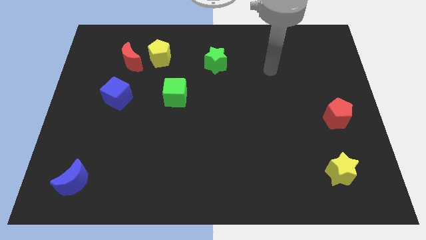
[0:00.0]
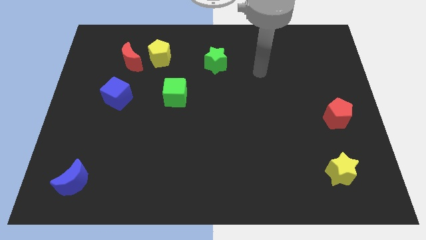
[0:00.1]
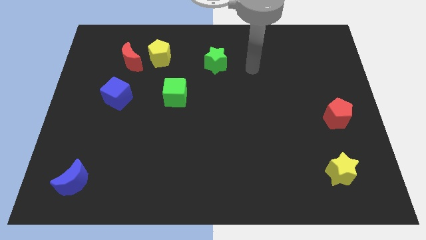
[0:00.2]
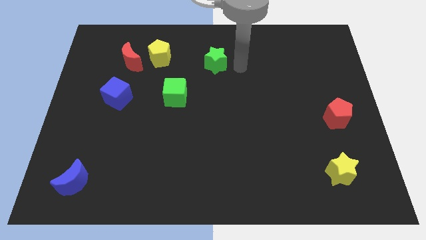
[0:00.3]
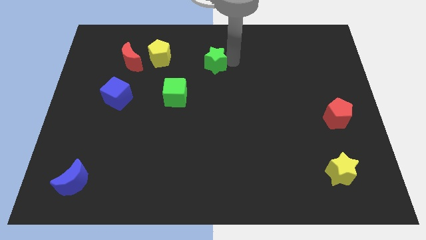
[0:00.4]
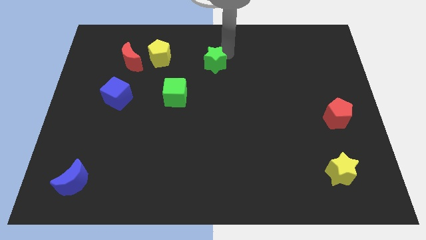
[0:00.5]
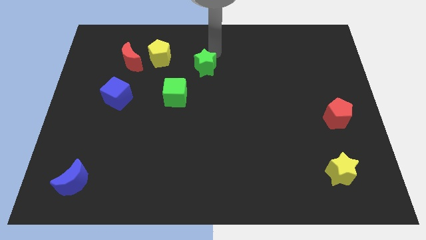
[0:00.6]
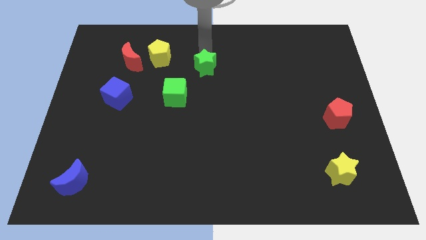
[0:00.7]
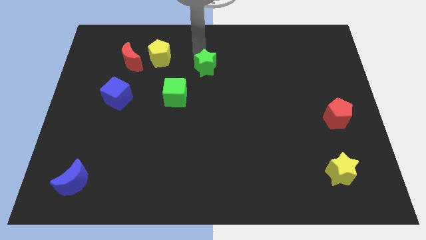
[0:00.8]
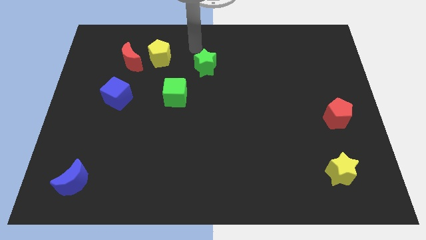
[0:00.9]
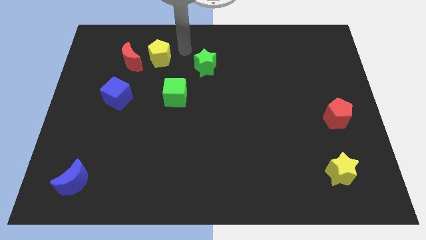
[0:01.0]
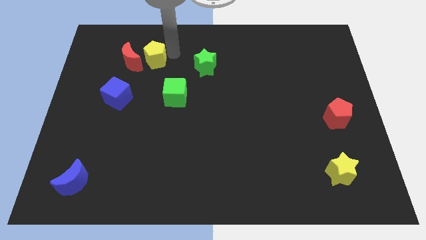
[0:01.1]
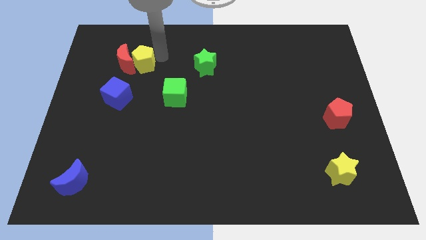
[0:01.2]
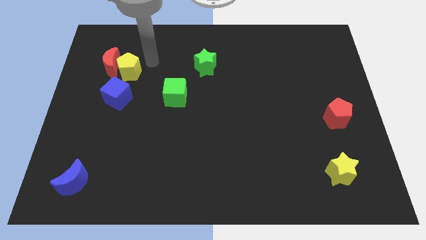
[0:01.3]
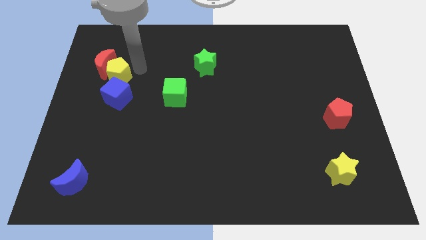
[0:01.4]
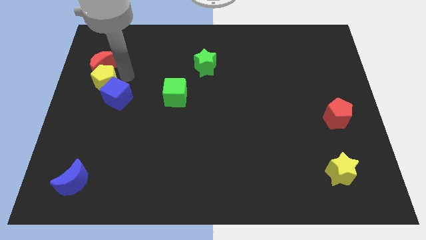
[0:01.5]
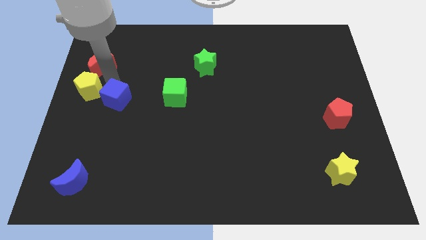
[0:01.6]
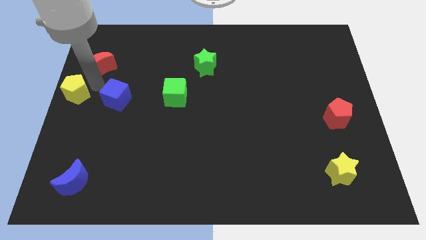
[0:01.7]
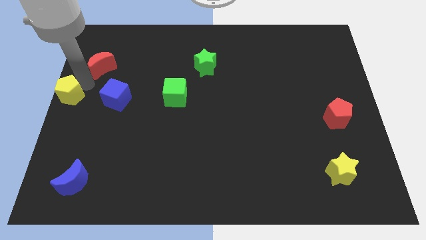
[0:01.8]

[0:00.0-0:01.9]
move the red moon away from the yellow pentagon

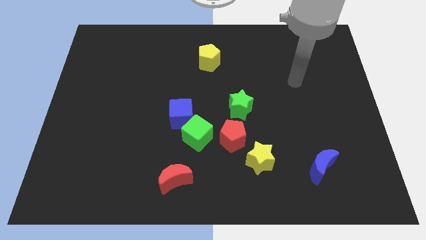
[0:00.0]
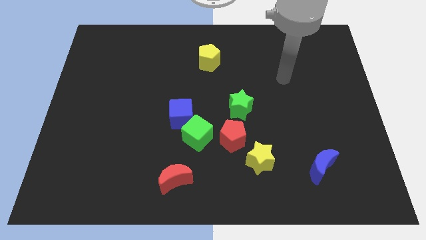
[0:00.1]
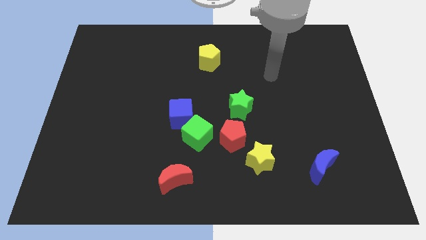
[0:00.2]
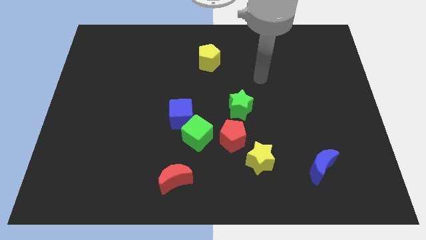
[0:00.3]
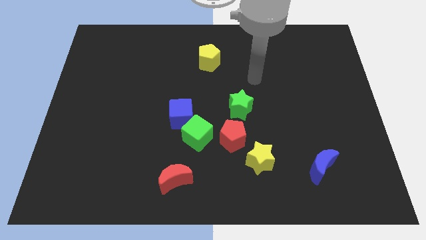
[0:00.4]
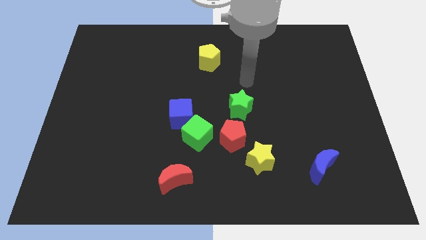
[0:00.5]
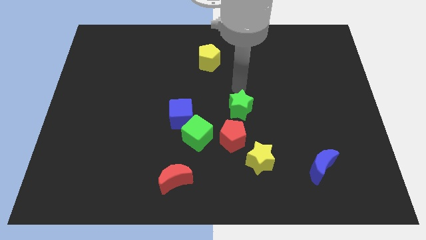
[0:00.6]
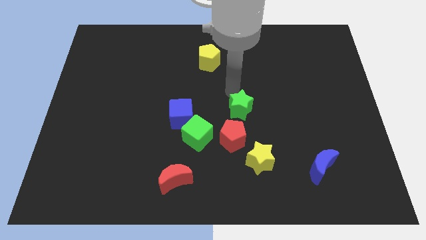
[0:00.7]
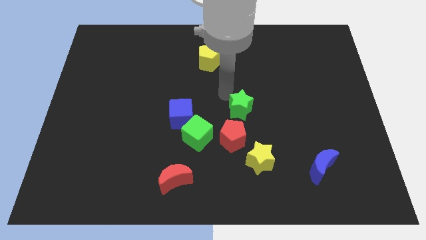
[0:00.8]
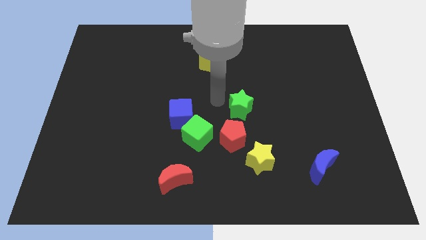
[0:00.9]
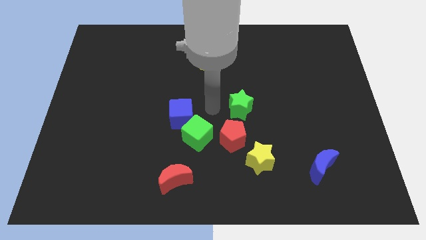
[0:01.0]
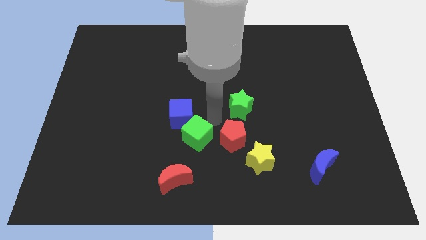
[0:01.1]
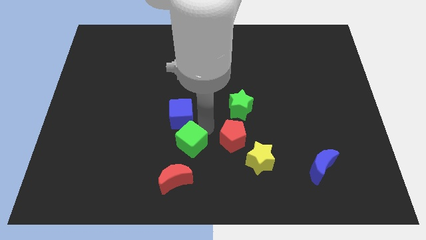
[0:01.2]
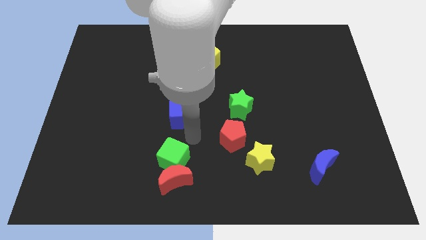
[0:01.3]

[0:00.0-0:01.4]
pull the blue cube apart from the green cube

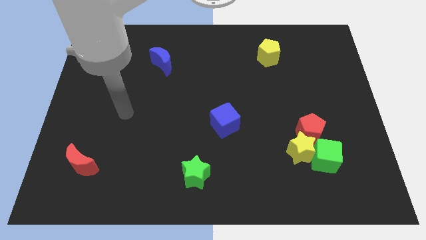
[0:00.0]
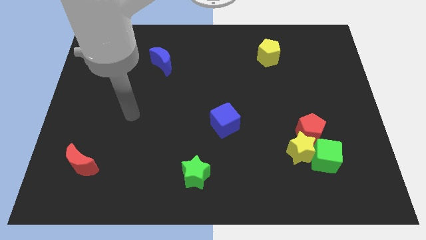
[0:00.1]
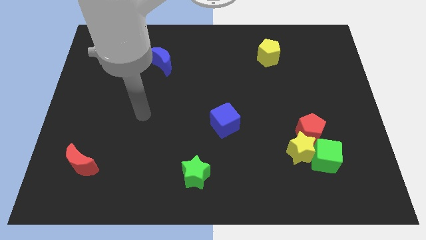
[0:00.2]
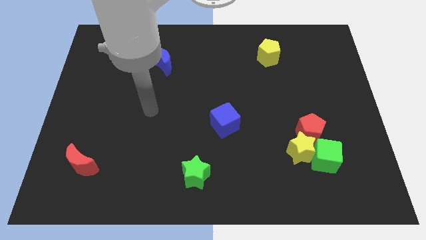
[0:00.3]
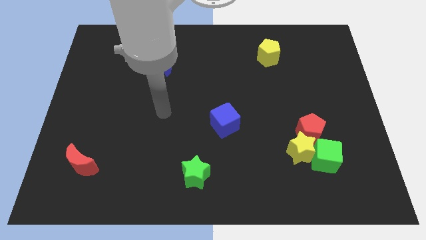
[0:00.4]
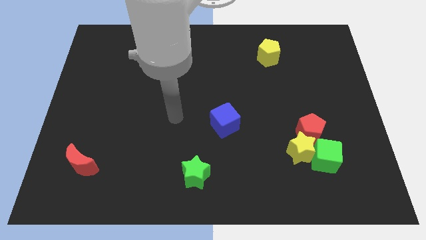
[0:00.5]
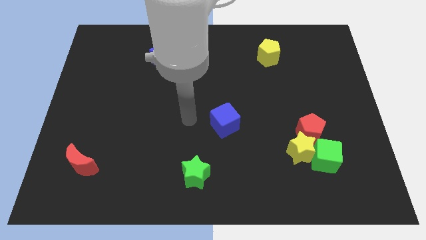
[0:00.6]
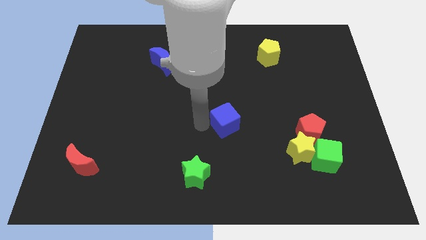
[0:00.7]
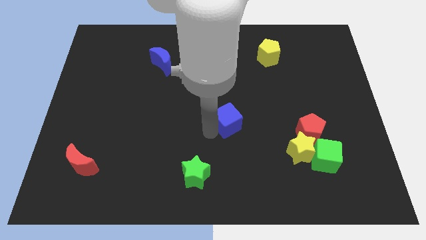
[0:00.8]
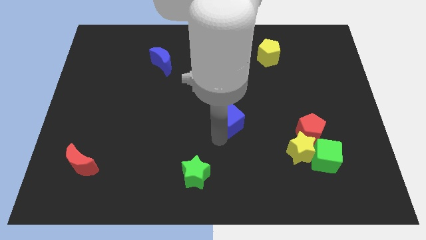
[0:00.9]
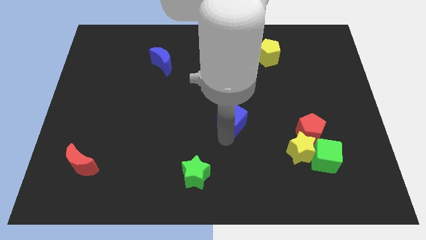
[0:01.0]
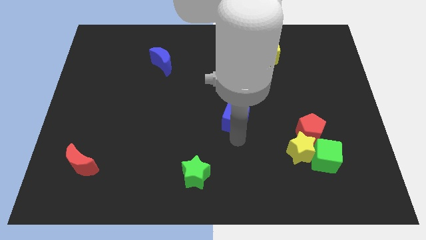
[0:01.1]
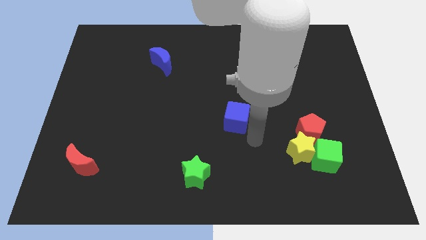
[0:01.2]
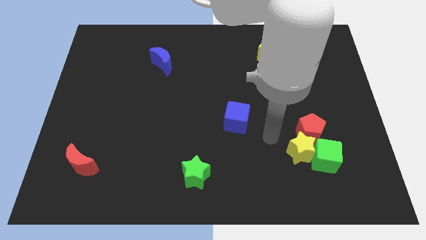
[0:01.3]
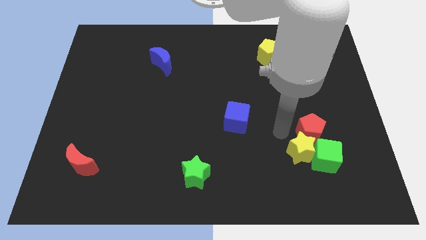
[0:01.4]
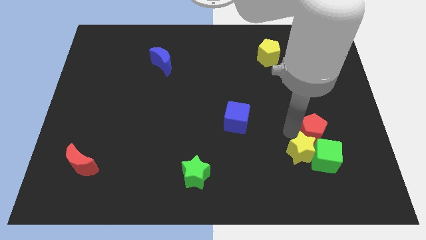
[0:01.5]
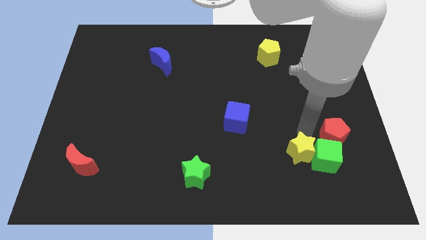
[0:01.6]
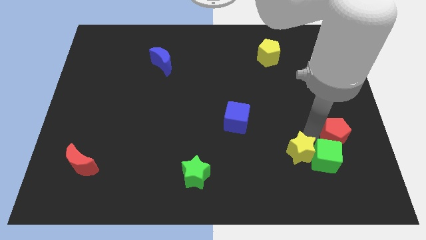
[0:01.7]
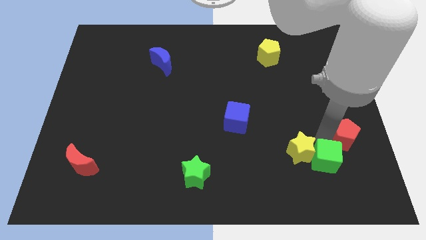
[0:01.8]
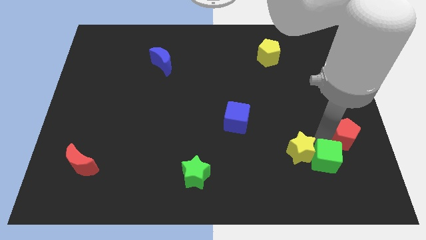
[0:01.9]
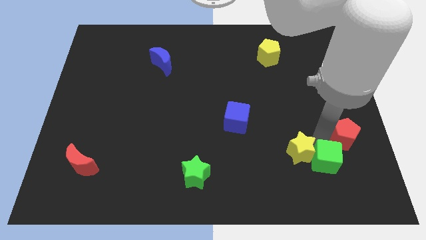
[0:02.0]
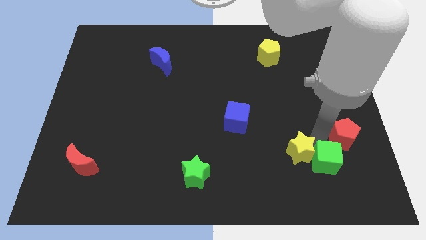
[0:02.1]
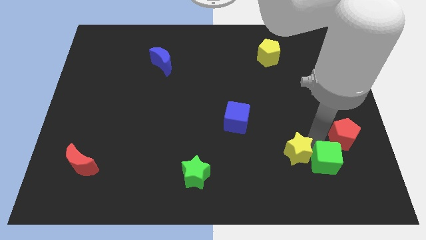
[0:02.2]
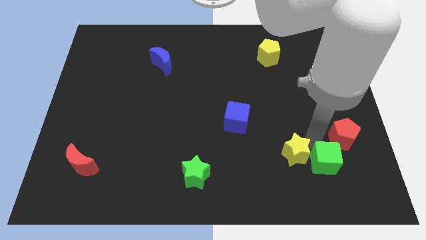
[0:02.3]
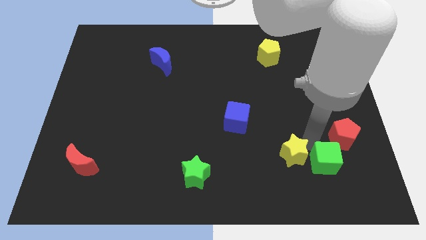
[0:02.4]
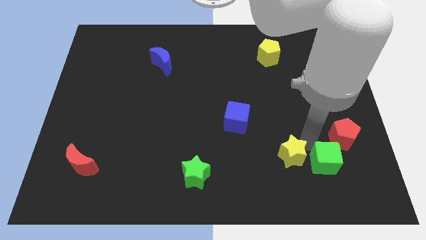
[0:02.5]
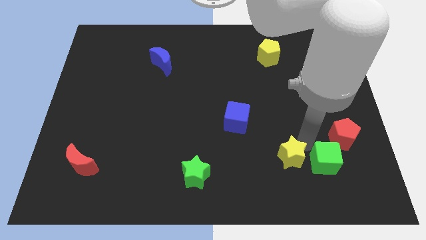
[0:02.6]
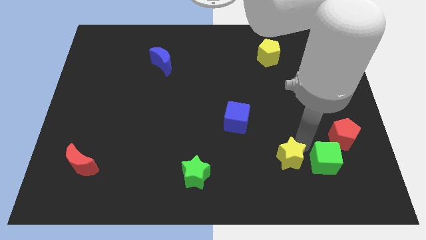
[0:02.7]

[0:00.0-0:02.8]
move the yellow star away from the red pentagon and green cube

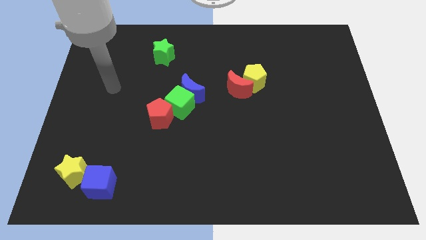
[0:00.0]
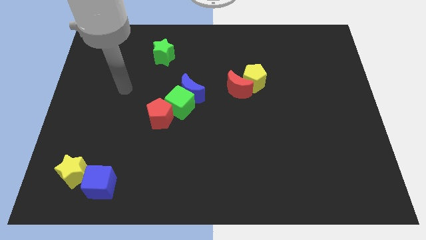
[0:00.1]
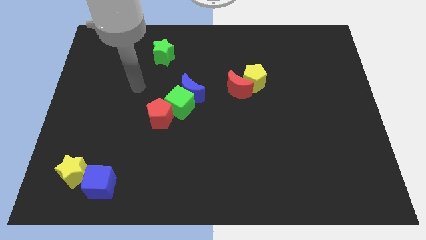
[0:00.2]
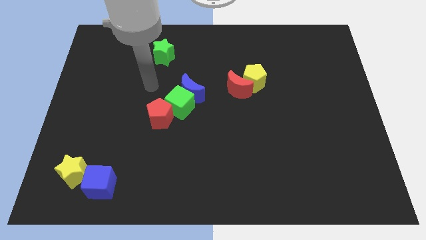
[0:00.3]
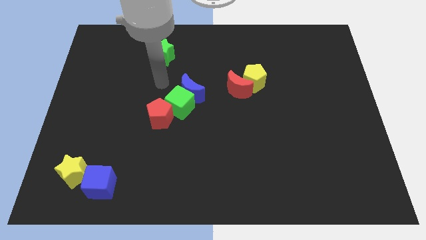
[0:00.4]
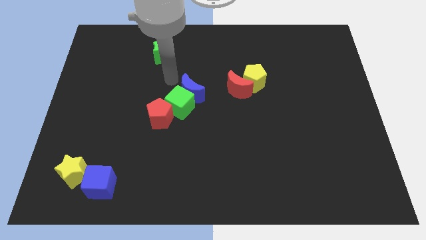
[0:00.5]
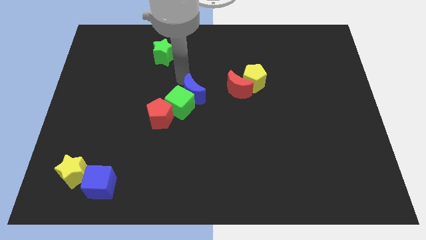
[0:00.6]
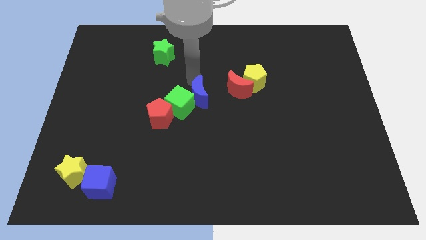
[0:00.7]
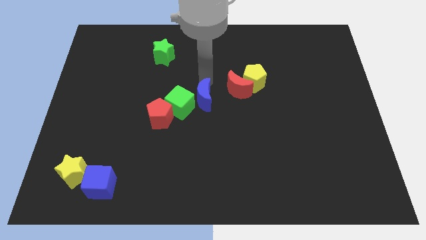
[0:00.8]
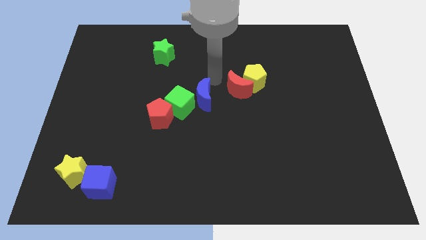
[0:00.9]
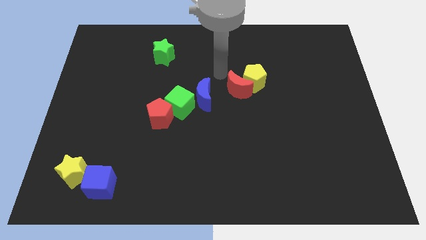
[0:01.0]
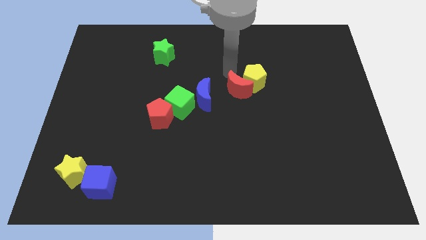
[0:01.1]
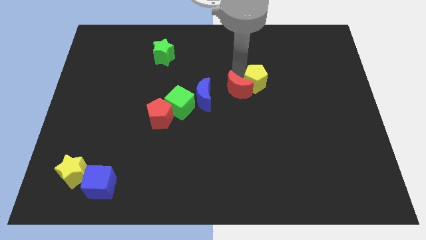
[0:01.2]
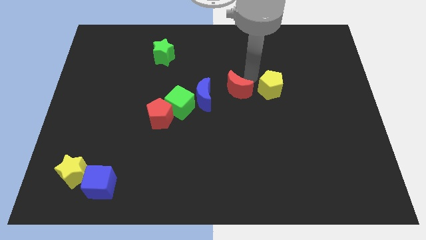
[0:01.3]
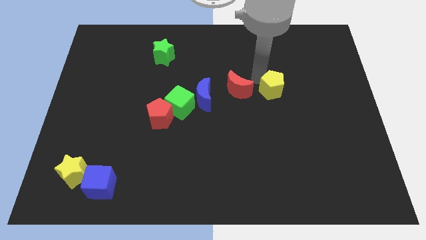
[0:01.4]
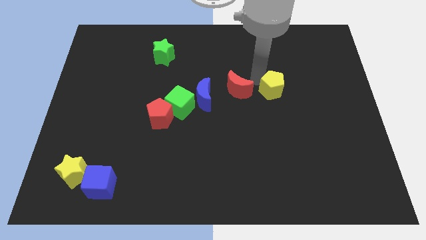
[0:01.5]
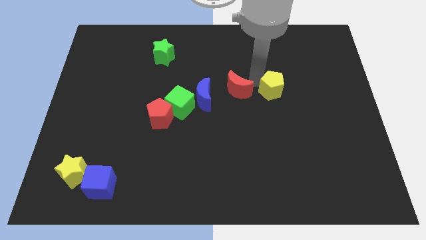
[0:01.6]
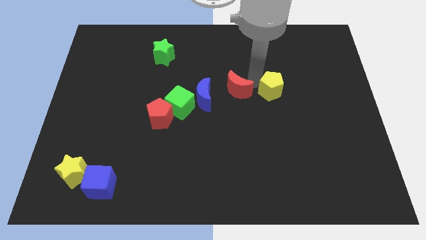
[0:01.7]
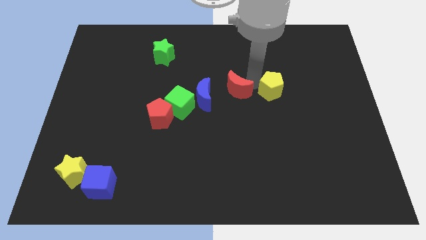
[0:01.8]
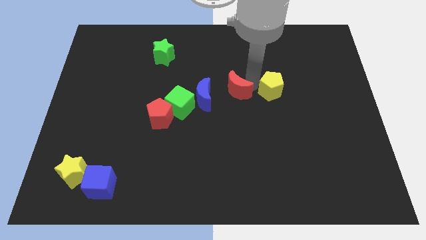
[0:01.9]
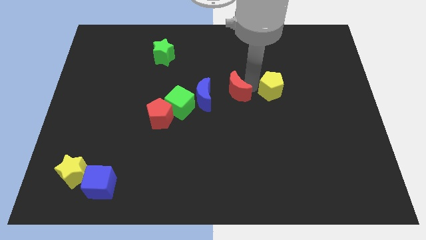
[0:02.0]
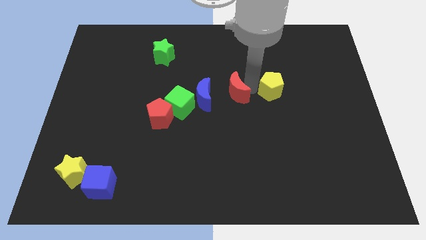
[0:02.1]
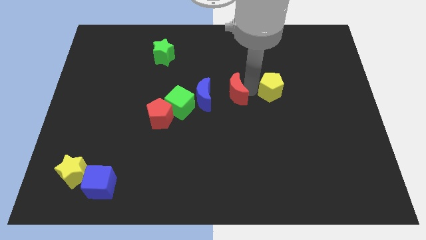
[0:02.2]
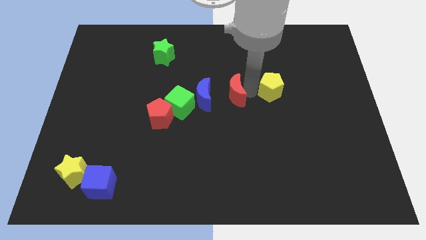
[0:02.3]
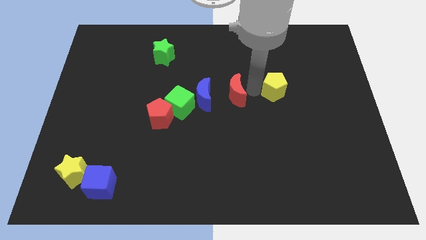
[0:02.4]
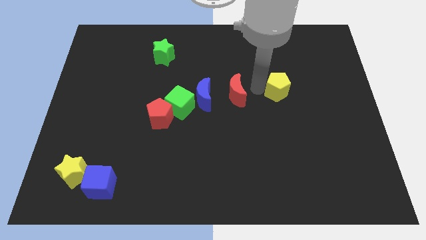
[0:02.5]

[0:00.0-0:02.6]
pull the red moon apart from the yellow pentagon

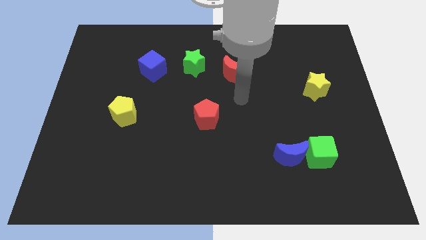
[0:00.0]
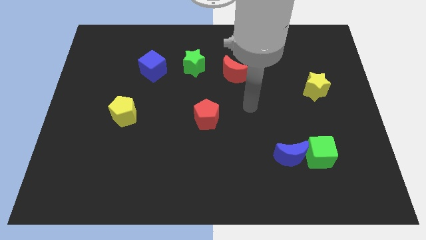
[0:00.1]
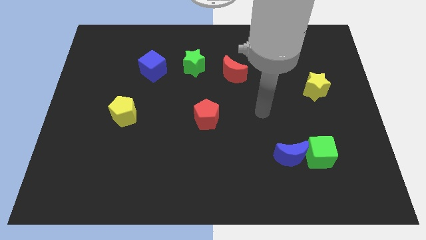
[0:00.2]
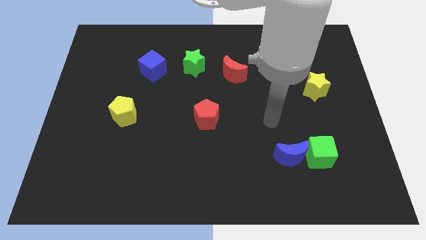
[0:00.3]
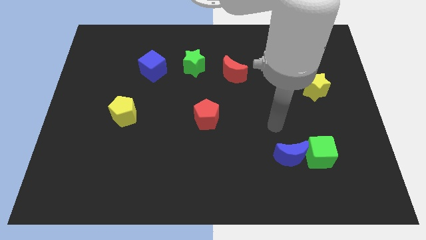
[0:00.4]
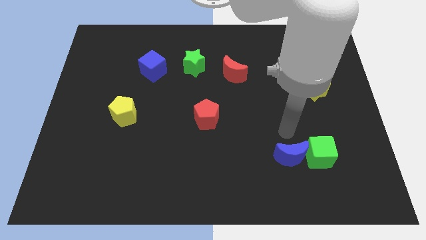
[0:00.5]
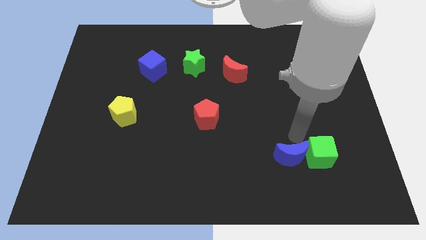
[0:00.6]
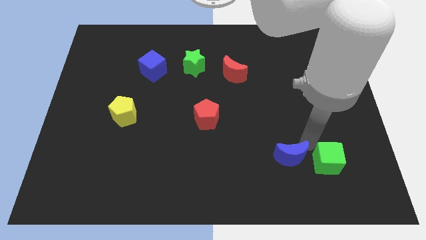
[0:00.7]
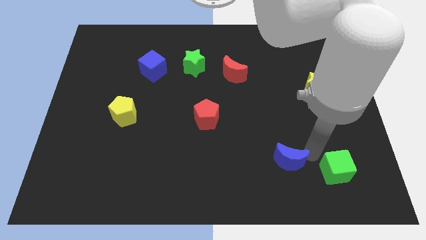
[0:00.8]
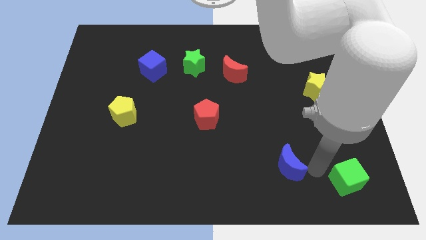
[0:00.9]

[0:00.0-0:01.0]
separate the blue moon from the green cube
